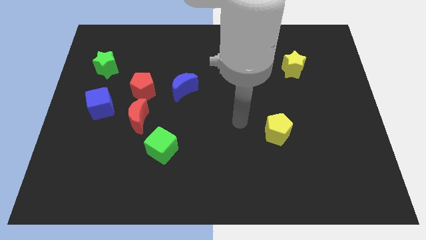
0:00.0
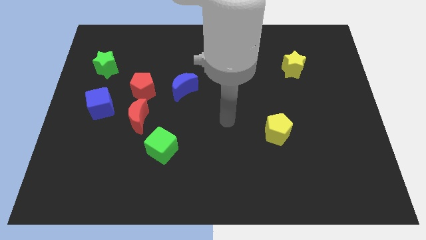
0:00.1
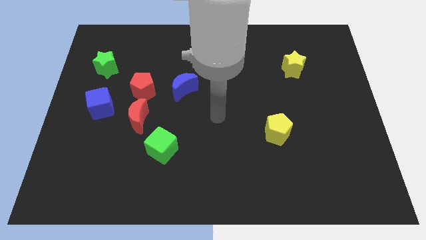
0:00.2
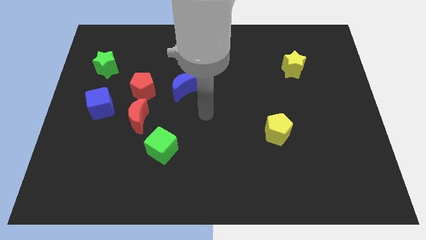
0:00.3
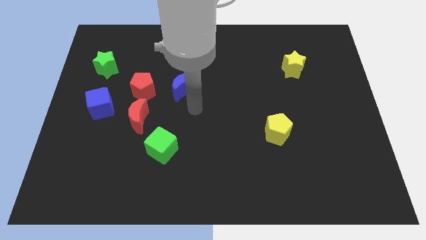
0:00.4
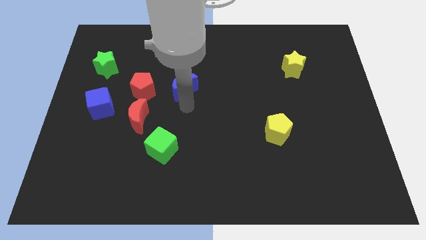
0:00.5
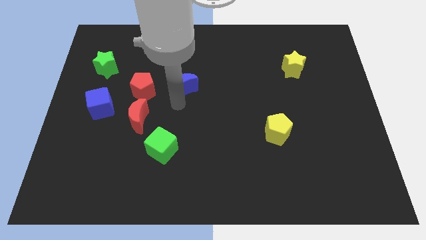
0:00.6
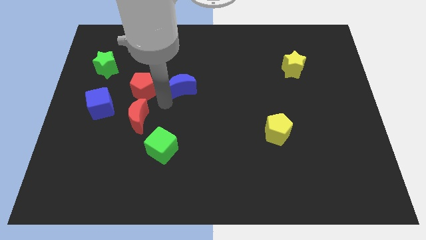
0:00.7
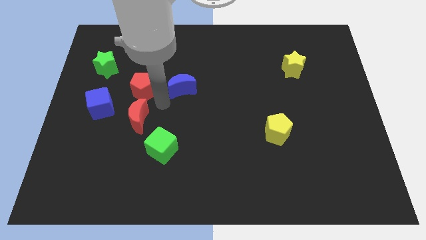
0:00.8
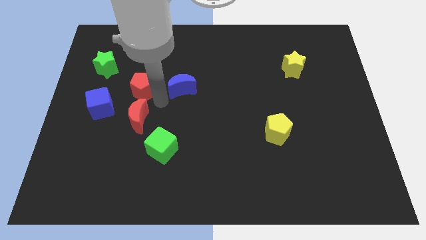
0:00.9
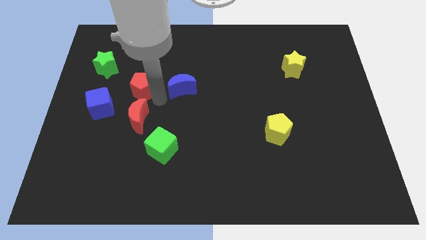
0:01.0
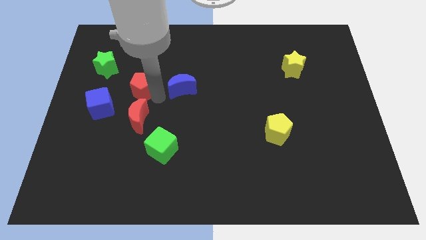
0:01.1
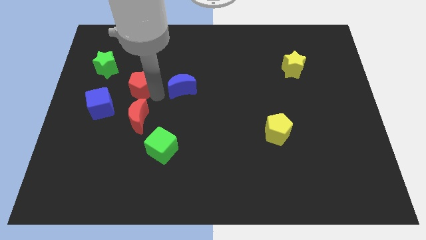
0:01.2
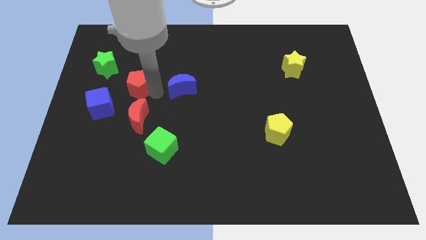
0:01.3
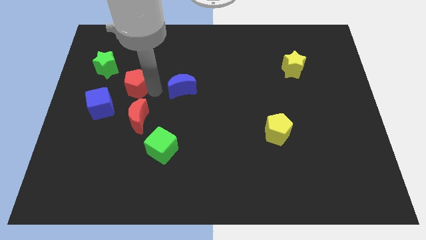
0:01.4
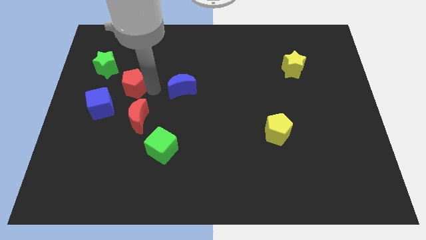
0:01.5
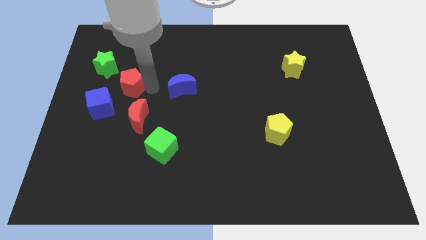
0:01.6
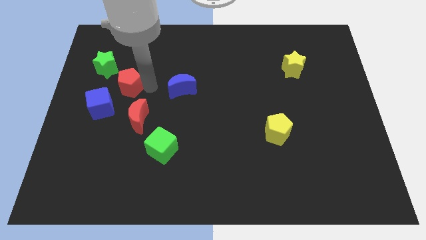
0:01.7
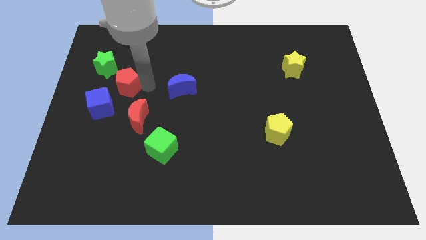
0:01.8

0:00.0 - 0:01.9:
pull the red pentagon apart from the red moon and blue moon

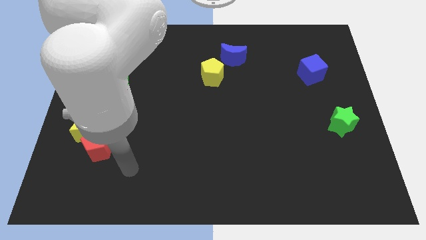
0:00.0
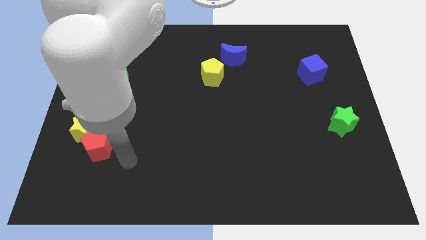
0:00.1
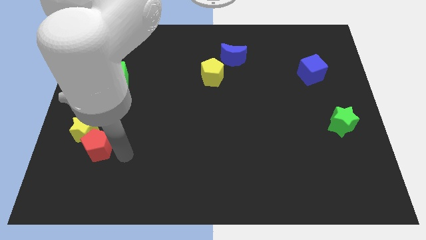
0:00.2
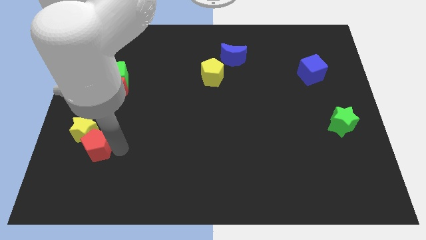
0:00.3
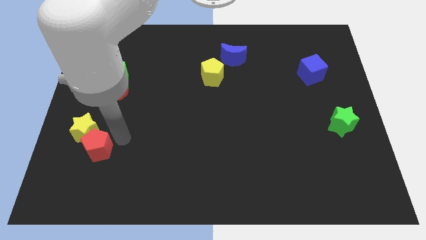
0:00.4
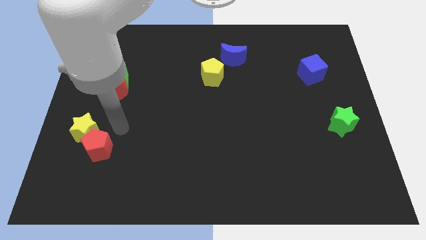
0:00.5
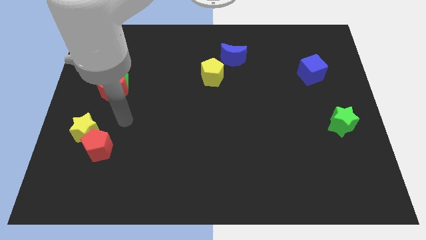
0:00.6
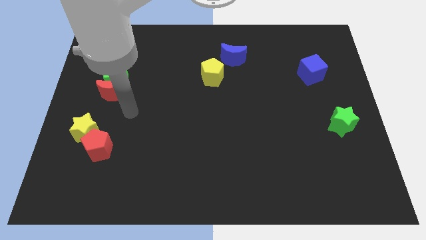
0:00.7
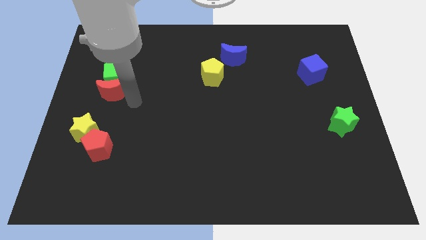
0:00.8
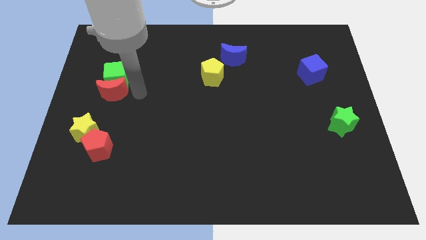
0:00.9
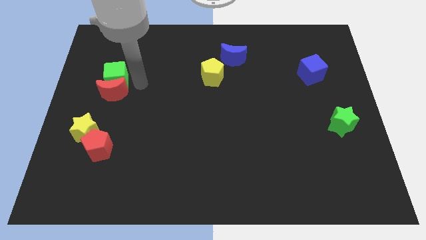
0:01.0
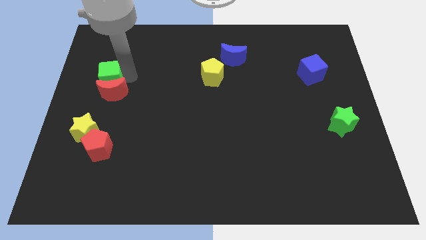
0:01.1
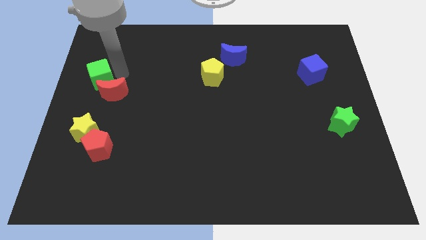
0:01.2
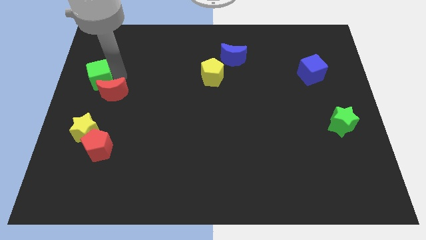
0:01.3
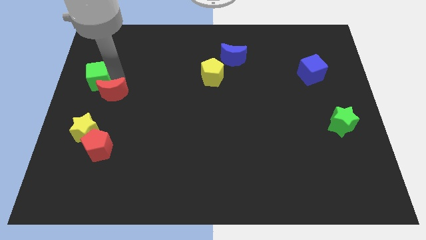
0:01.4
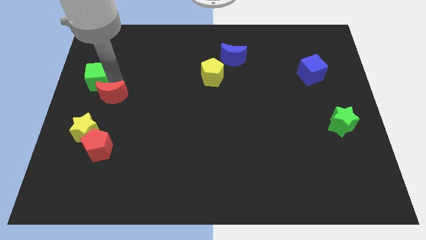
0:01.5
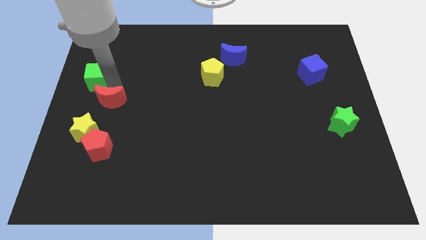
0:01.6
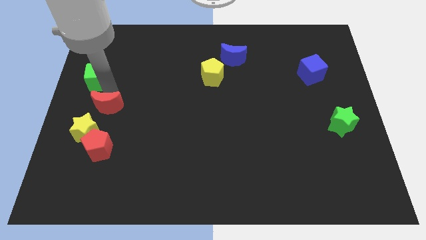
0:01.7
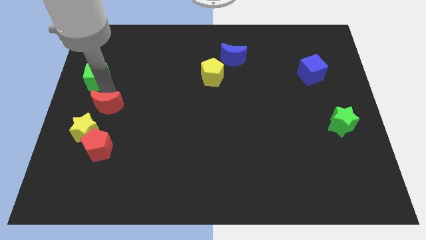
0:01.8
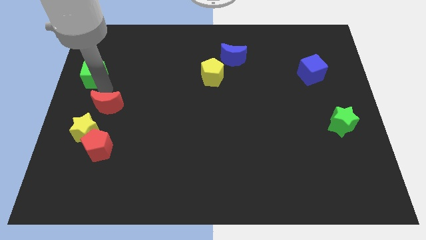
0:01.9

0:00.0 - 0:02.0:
move the red moon away from the green cube

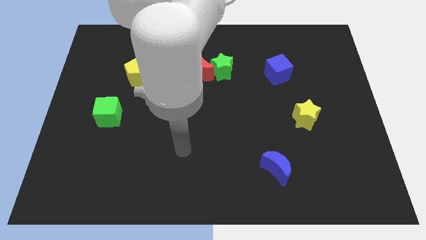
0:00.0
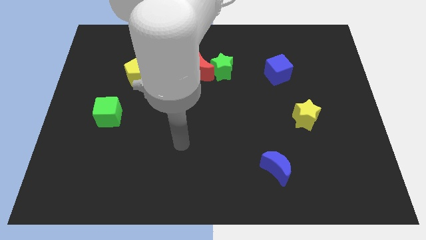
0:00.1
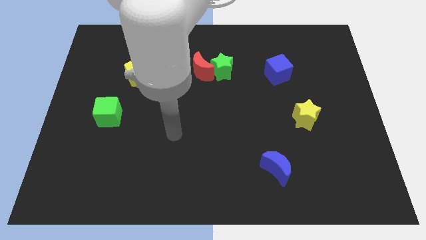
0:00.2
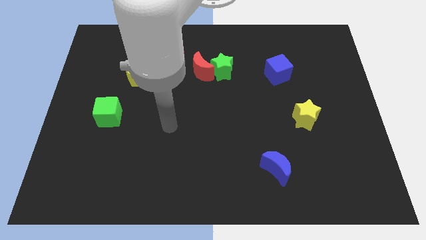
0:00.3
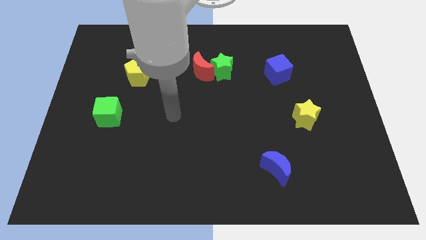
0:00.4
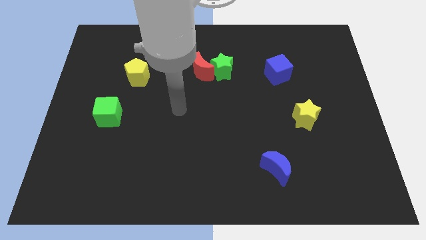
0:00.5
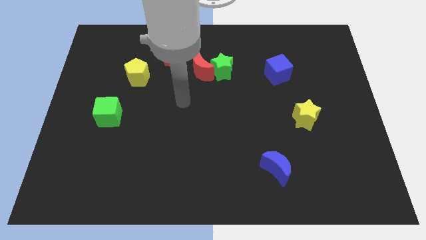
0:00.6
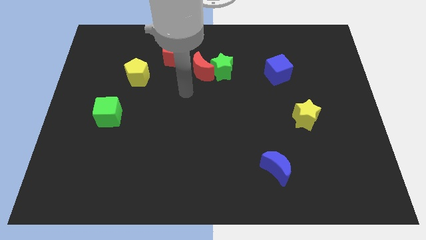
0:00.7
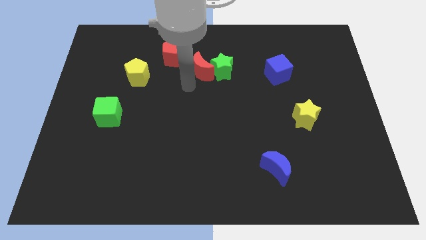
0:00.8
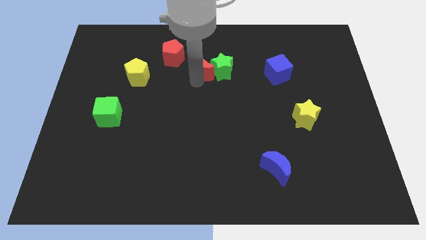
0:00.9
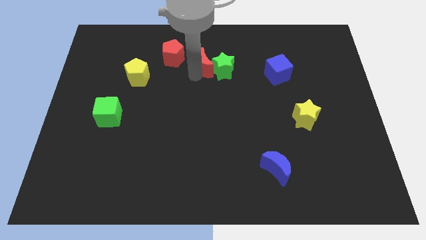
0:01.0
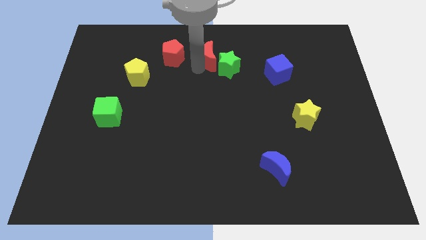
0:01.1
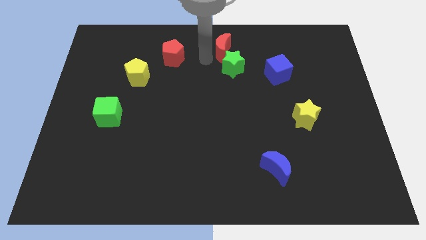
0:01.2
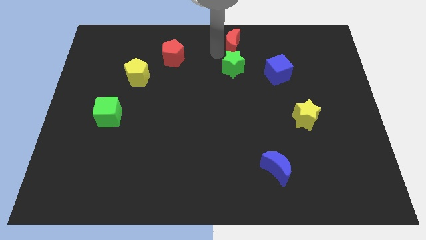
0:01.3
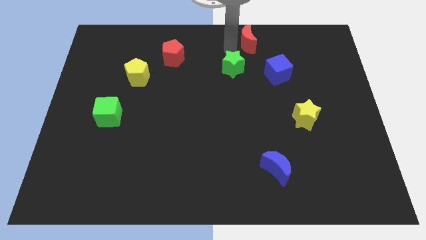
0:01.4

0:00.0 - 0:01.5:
pull the green star apart from the red moon

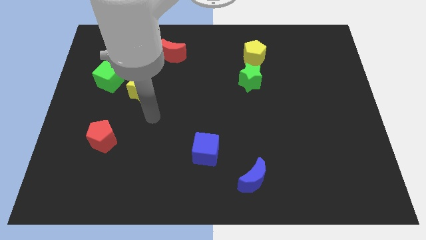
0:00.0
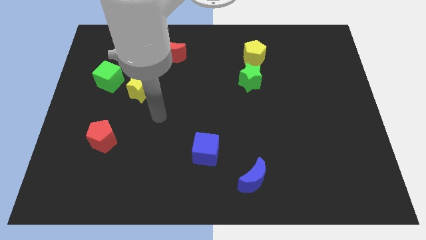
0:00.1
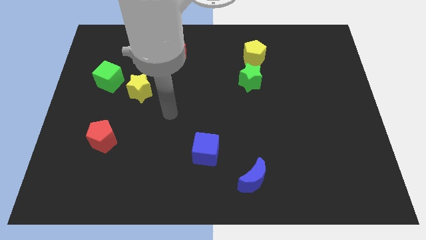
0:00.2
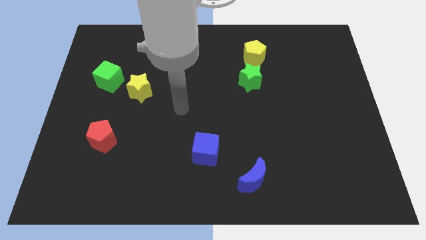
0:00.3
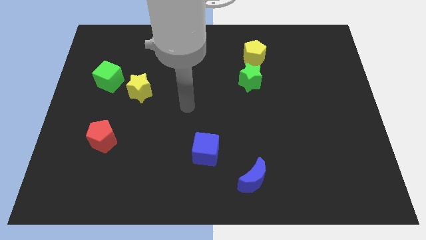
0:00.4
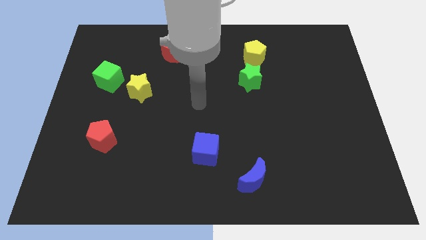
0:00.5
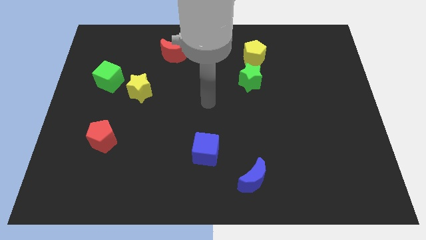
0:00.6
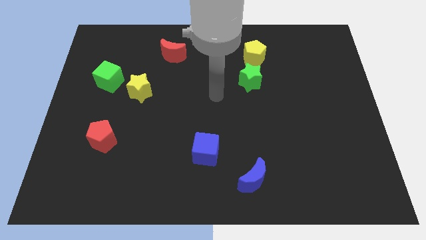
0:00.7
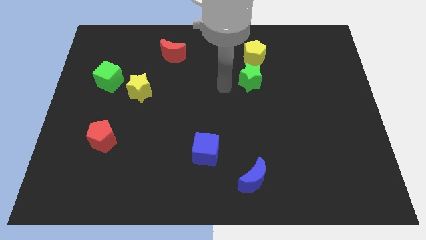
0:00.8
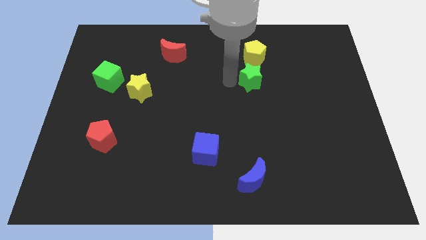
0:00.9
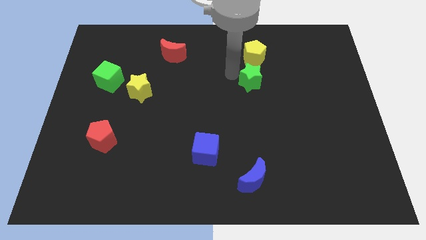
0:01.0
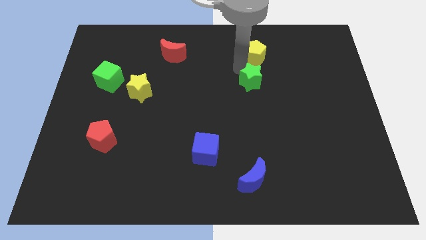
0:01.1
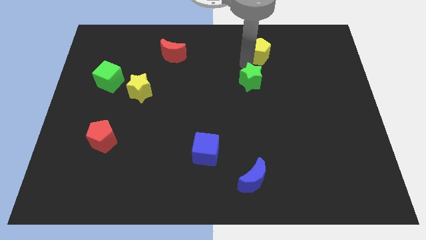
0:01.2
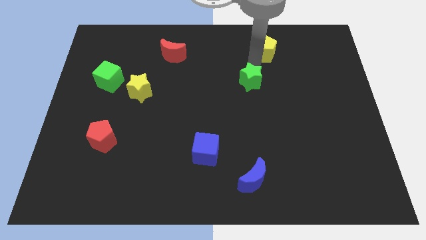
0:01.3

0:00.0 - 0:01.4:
separate the green star from the yellow pentagon

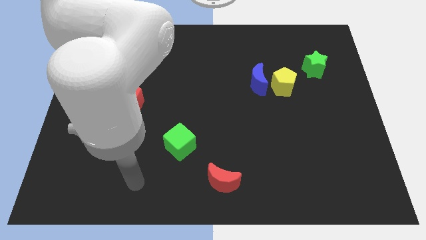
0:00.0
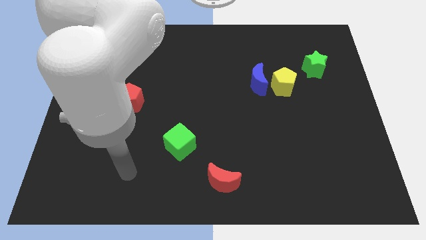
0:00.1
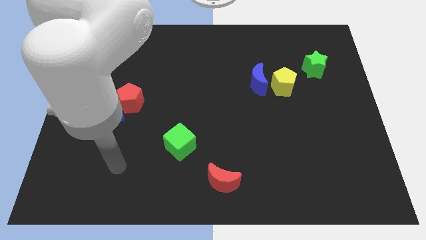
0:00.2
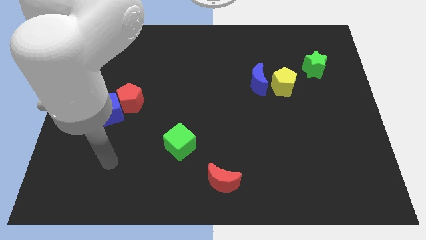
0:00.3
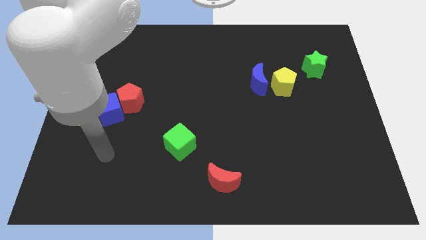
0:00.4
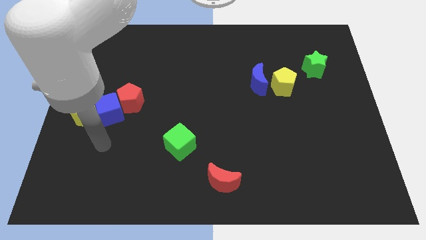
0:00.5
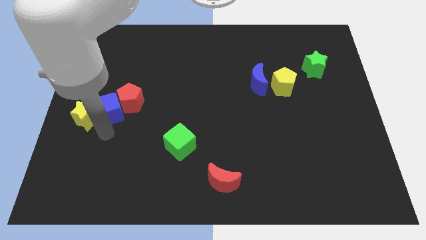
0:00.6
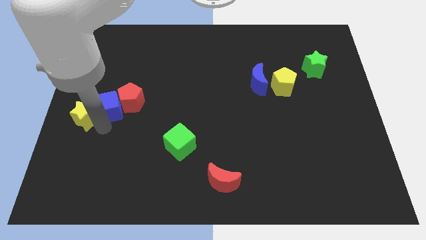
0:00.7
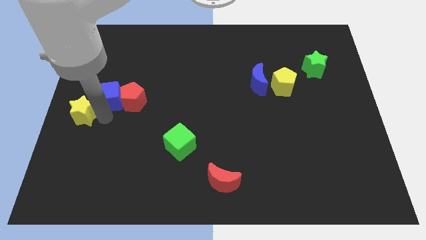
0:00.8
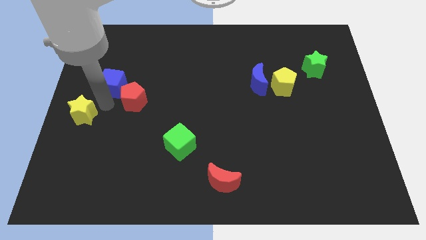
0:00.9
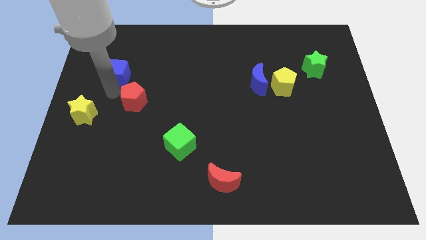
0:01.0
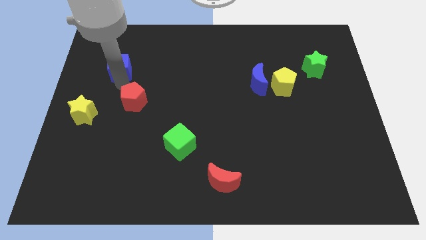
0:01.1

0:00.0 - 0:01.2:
pull the red pentagon apart from the blue cube

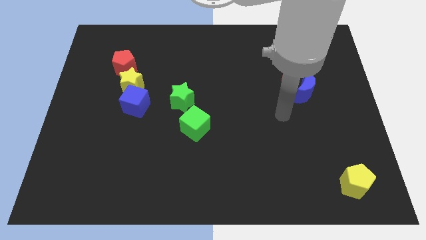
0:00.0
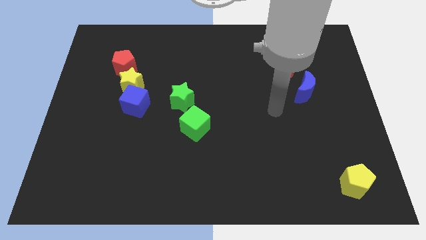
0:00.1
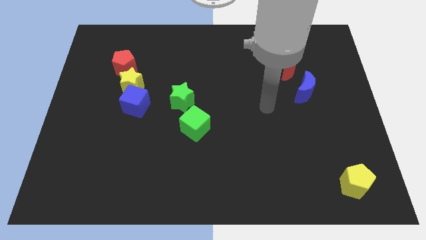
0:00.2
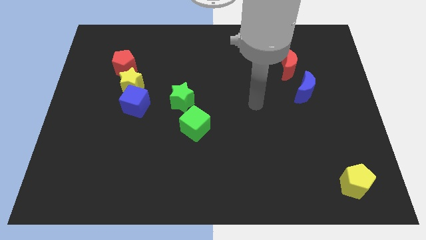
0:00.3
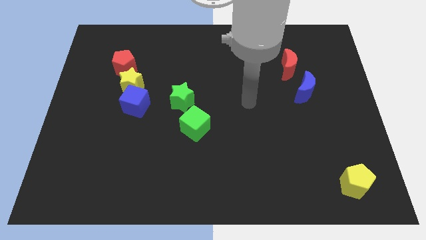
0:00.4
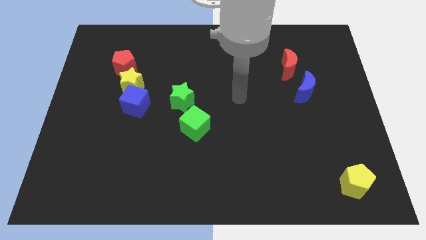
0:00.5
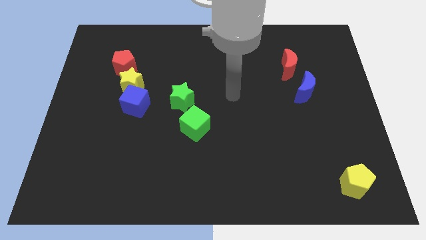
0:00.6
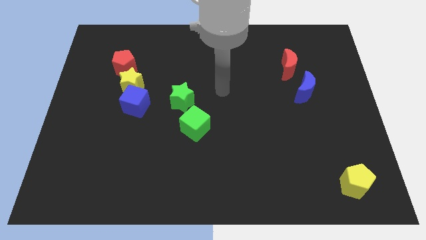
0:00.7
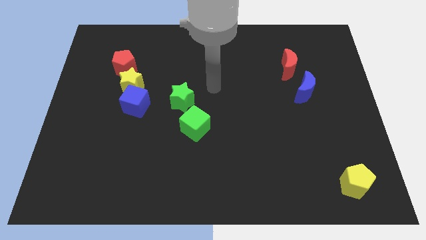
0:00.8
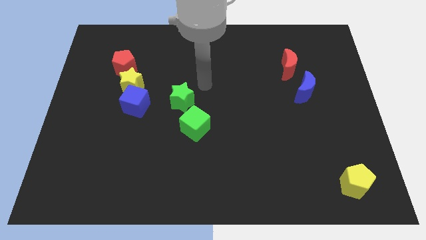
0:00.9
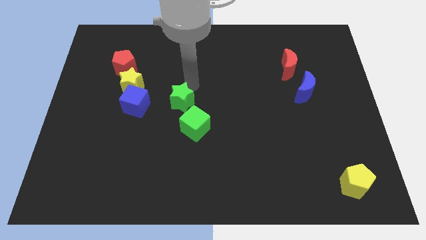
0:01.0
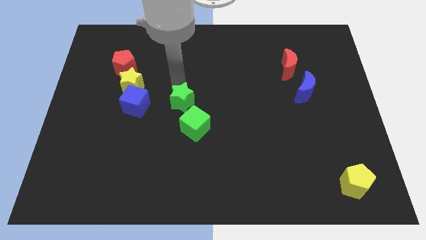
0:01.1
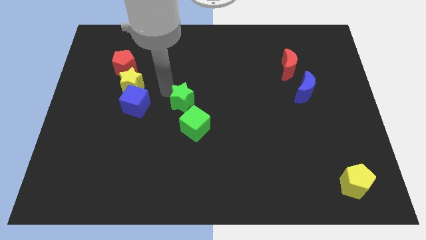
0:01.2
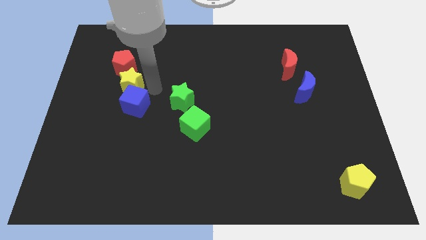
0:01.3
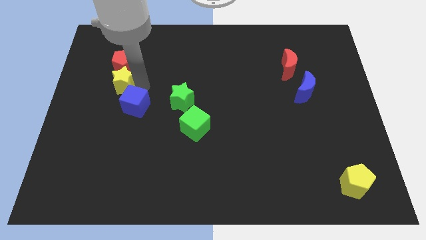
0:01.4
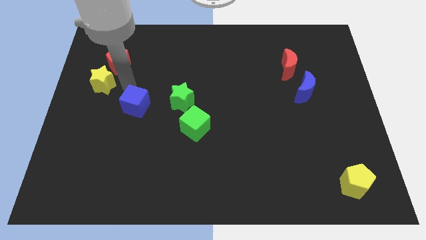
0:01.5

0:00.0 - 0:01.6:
separate the blue cube from the yellow star
